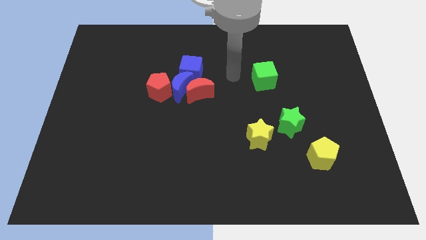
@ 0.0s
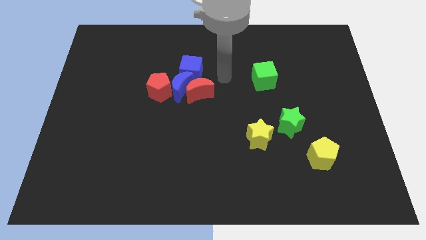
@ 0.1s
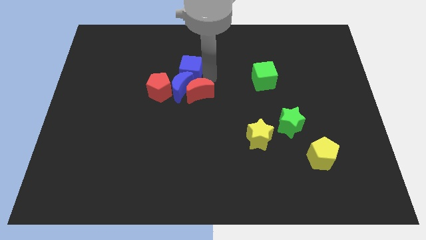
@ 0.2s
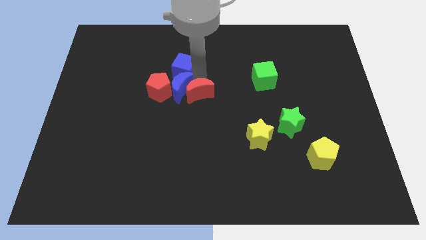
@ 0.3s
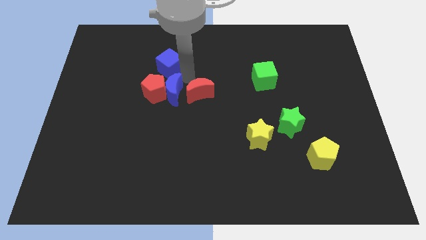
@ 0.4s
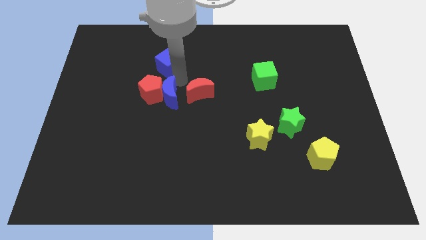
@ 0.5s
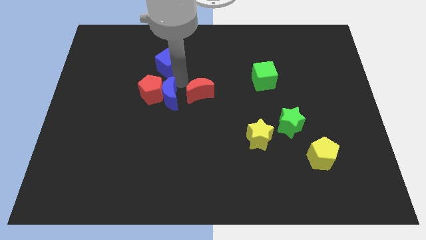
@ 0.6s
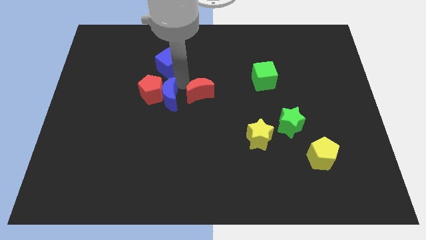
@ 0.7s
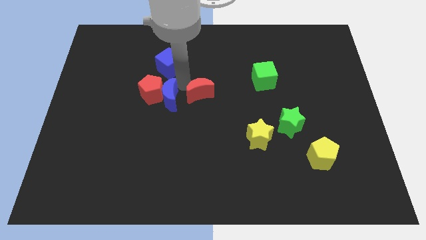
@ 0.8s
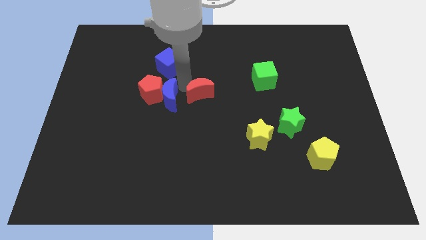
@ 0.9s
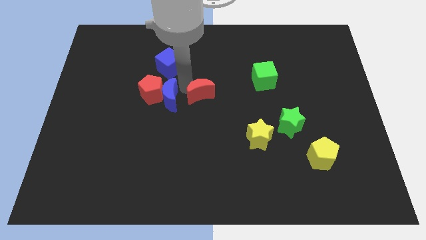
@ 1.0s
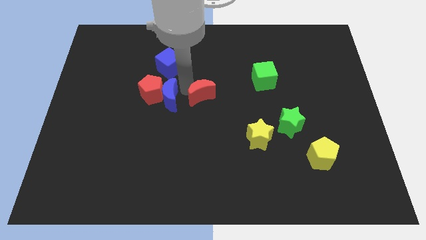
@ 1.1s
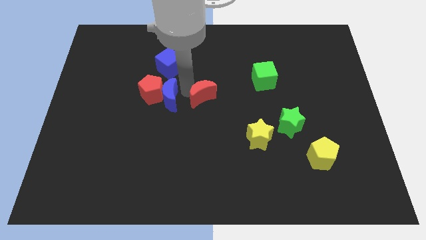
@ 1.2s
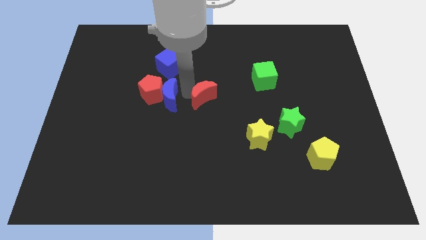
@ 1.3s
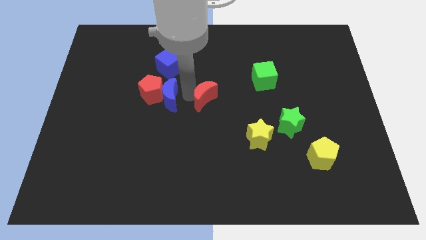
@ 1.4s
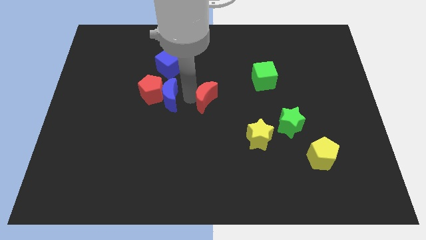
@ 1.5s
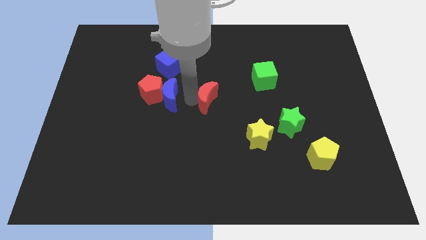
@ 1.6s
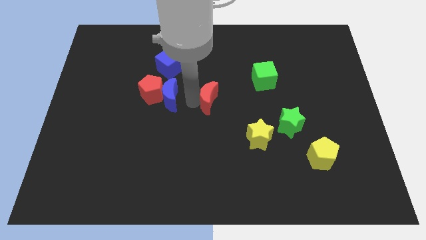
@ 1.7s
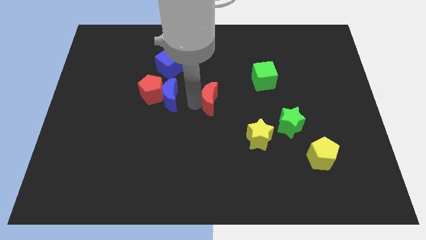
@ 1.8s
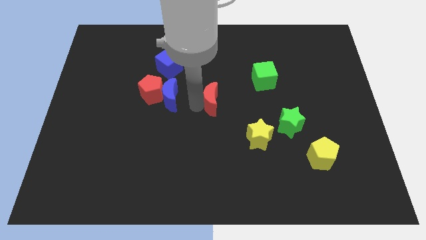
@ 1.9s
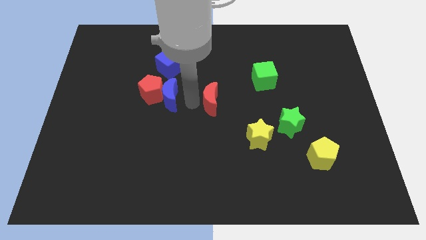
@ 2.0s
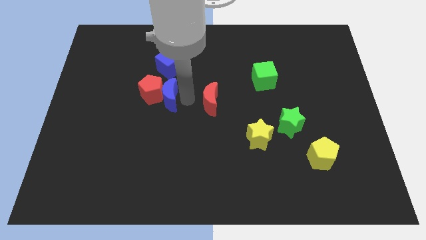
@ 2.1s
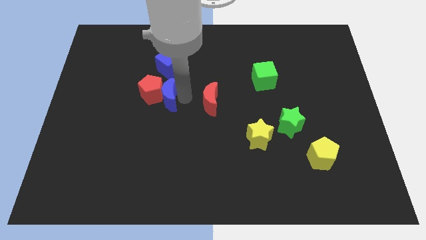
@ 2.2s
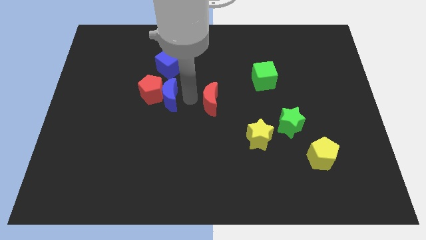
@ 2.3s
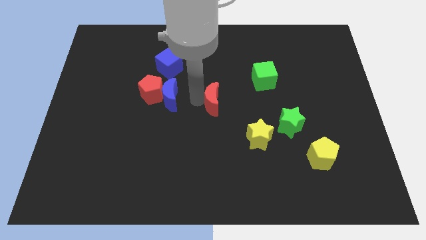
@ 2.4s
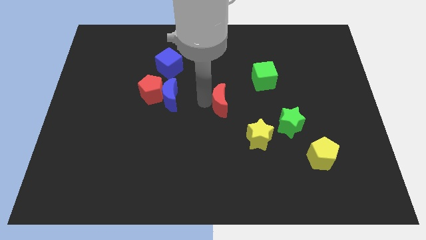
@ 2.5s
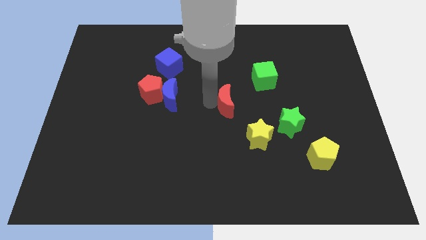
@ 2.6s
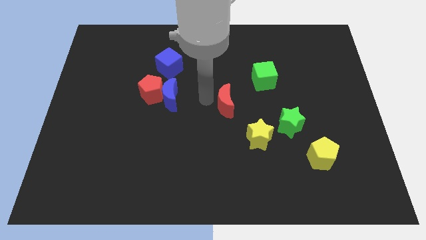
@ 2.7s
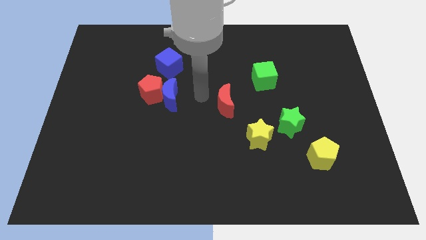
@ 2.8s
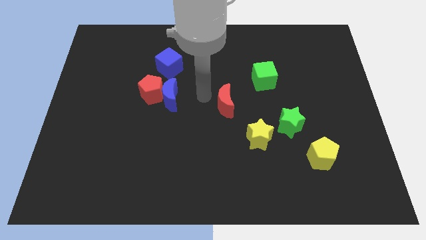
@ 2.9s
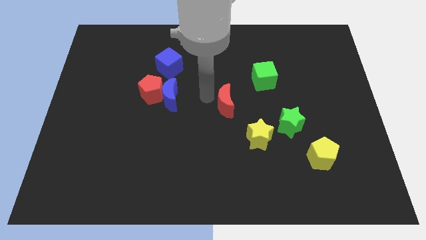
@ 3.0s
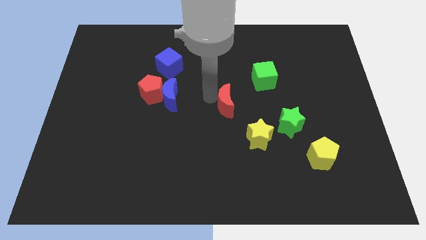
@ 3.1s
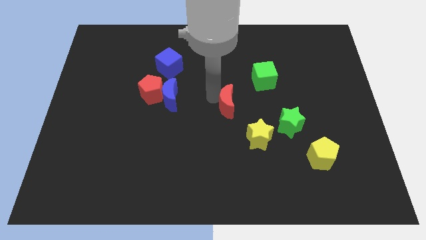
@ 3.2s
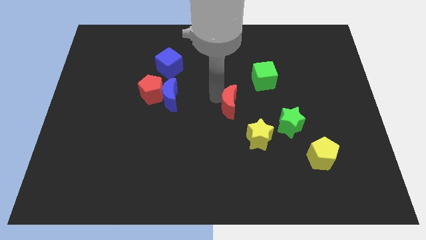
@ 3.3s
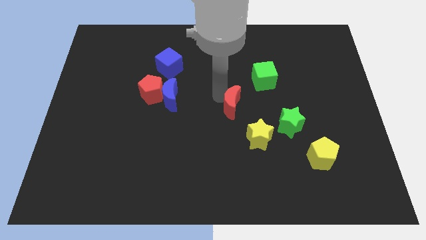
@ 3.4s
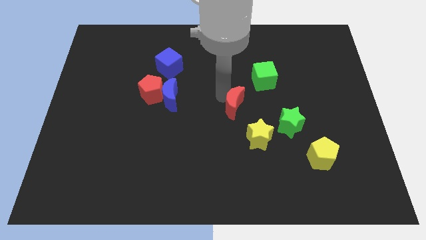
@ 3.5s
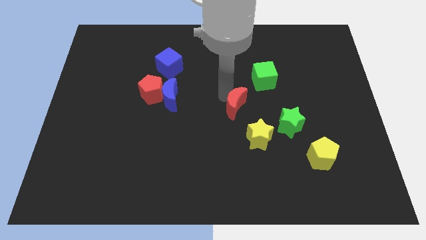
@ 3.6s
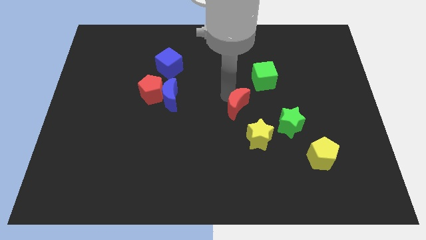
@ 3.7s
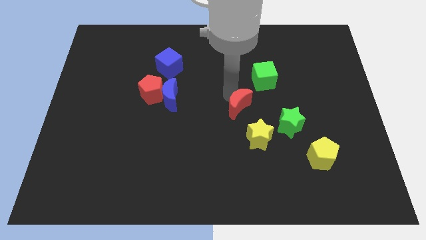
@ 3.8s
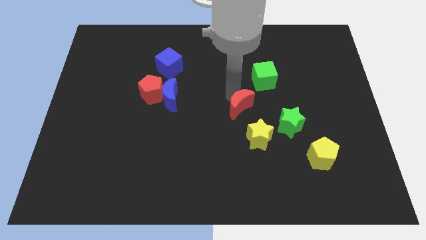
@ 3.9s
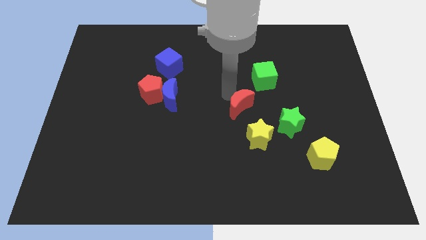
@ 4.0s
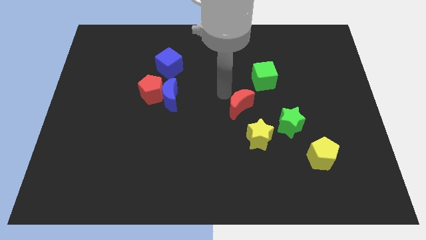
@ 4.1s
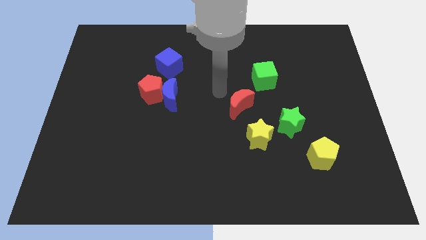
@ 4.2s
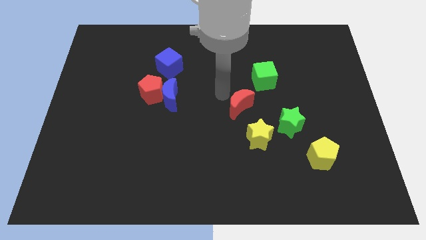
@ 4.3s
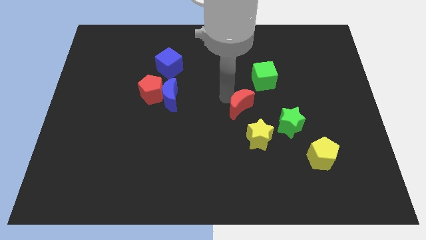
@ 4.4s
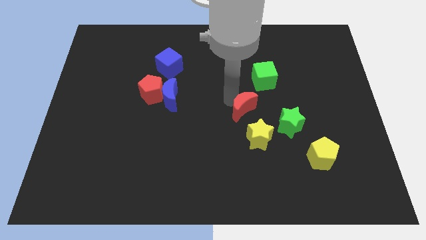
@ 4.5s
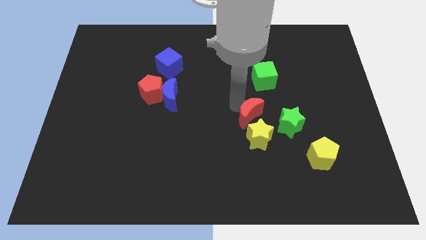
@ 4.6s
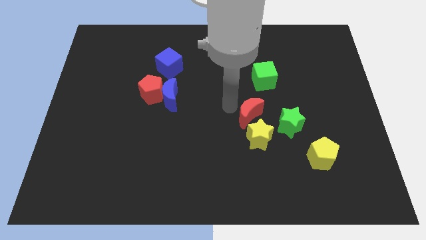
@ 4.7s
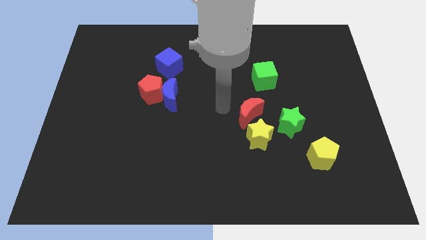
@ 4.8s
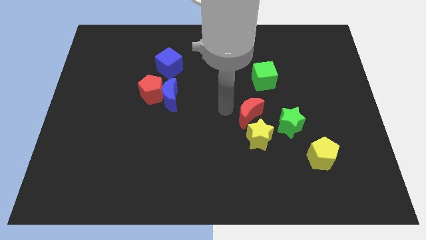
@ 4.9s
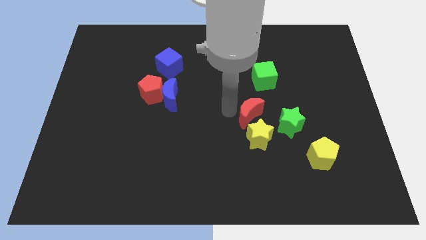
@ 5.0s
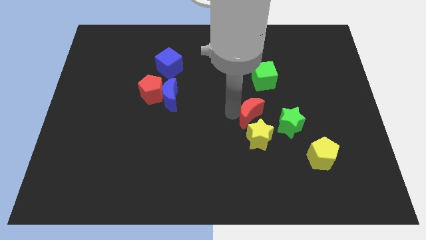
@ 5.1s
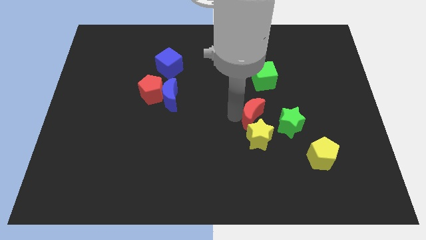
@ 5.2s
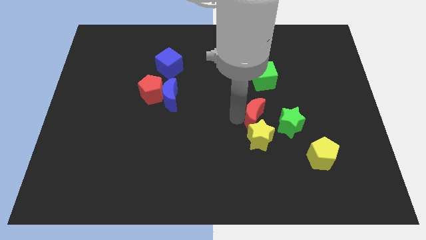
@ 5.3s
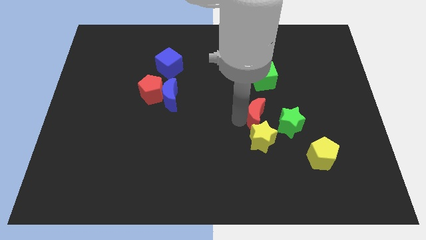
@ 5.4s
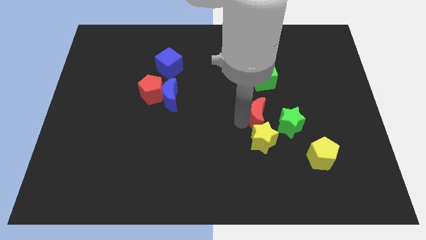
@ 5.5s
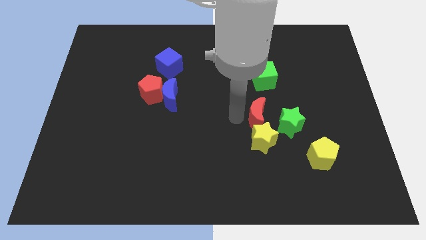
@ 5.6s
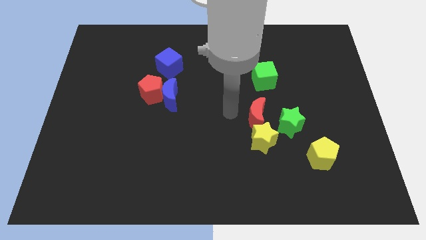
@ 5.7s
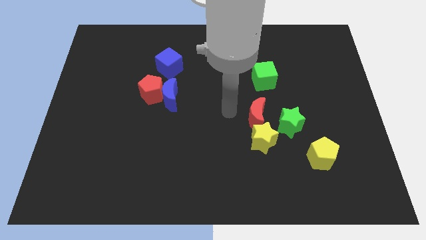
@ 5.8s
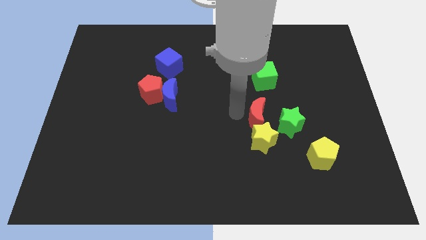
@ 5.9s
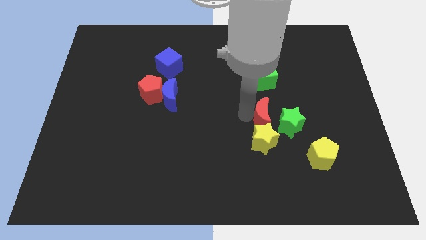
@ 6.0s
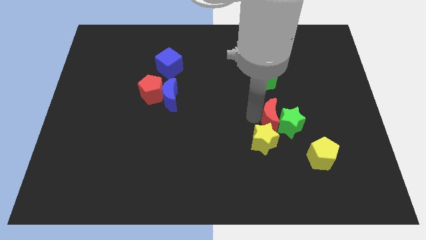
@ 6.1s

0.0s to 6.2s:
move the red moon to the green star

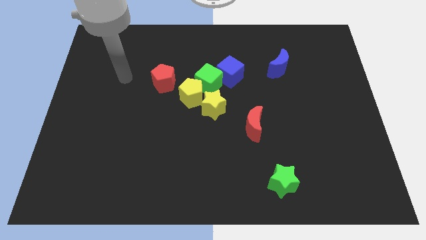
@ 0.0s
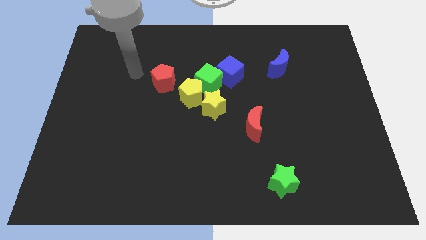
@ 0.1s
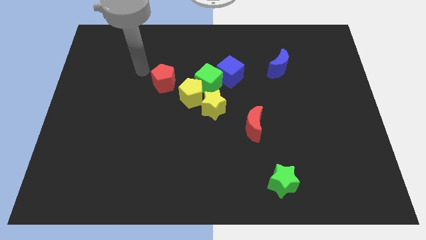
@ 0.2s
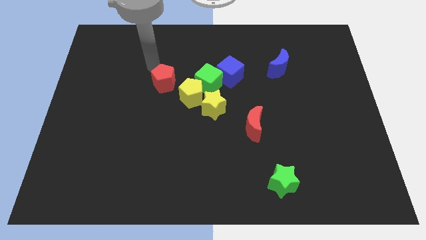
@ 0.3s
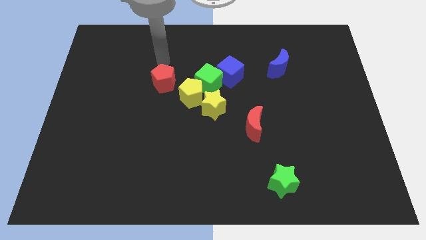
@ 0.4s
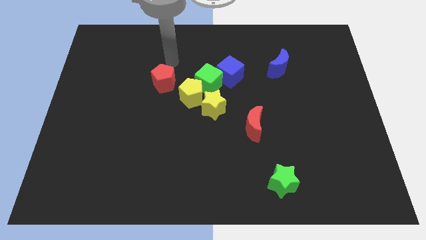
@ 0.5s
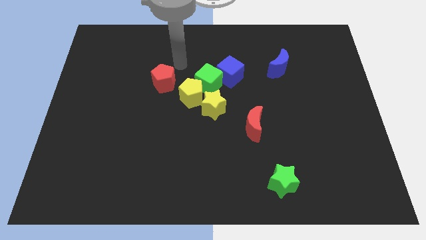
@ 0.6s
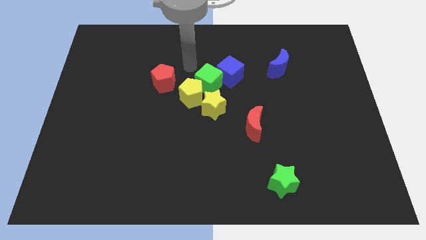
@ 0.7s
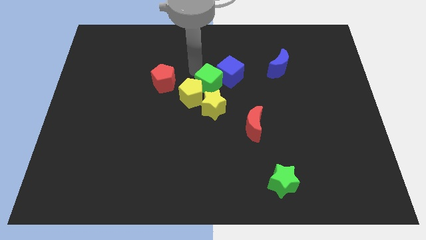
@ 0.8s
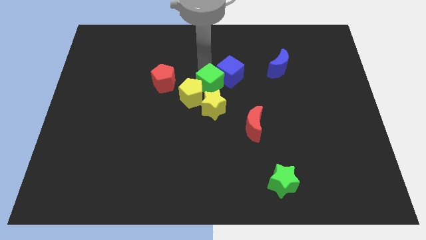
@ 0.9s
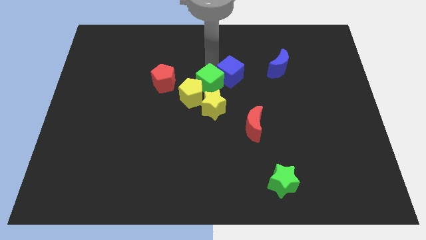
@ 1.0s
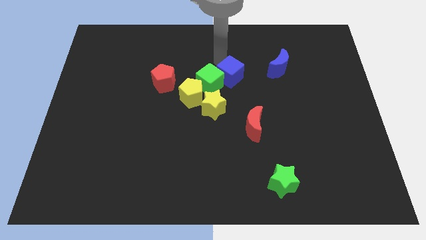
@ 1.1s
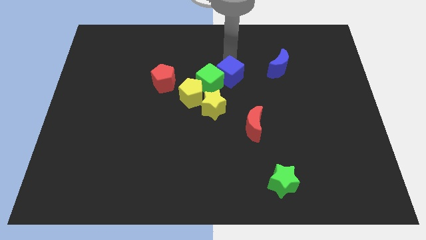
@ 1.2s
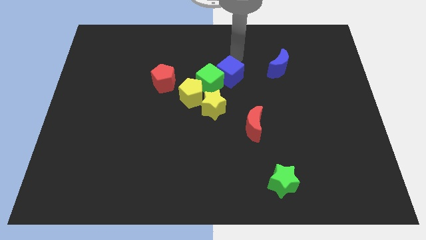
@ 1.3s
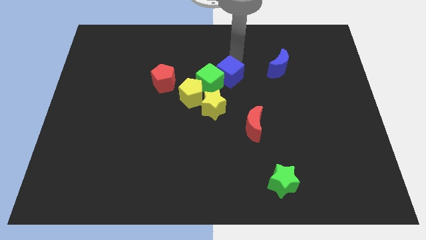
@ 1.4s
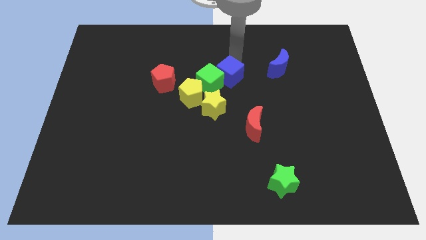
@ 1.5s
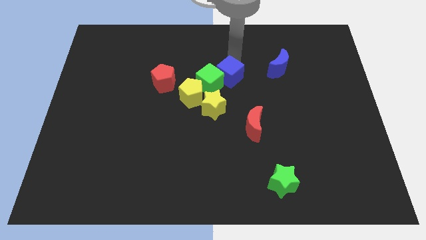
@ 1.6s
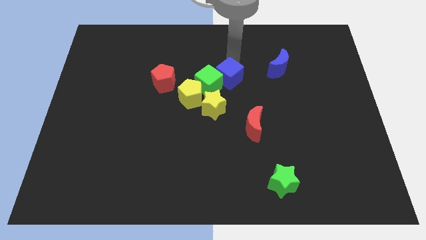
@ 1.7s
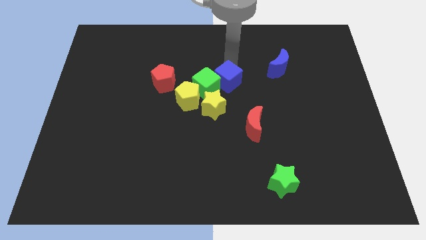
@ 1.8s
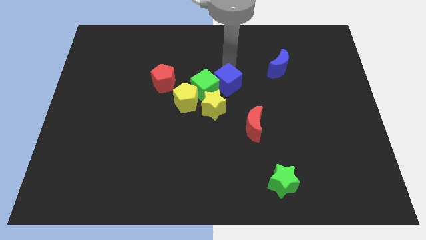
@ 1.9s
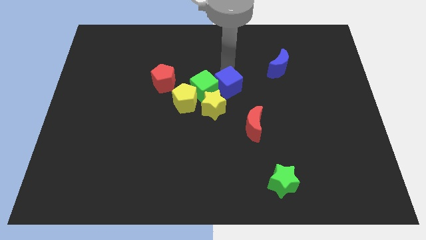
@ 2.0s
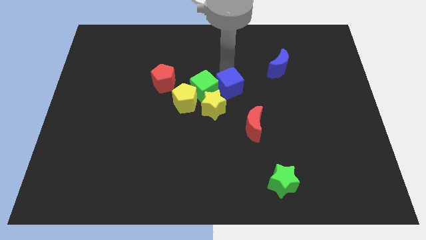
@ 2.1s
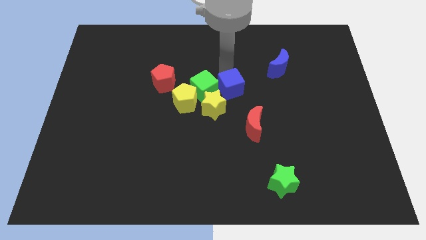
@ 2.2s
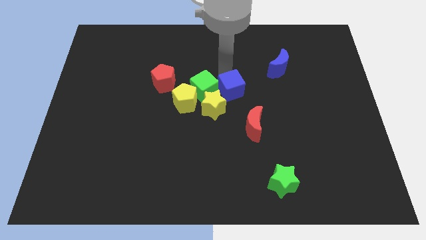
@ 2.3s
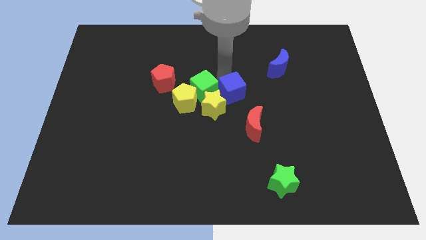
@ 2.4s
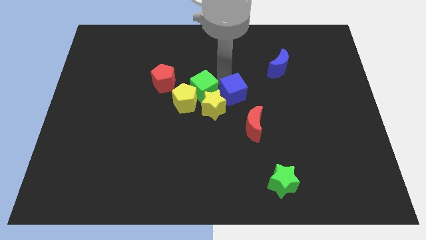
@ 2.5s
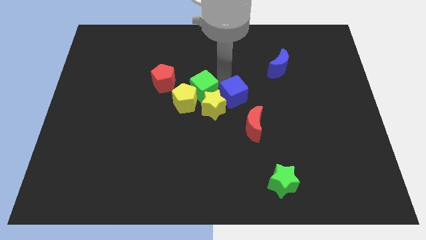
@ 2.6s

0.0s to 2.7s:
move the blue cube towards the yellow star
